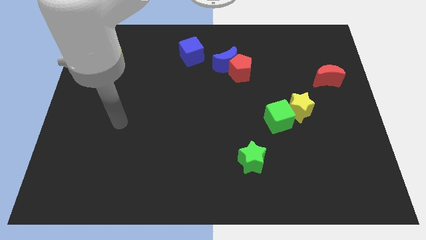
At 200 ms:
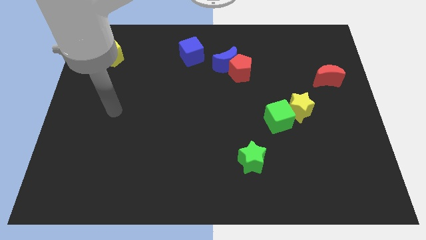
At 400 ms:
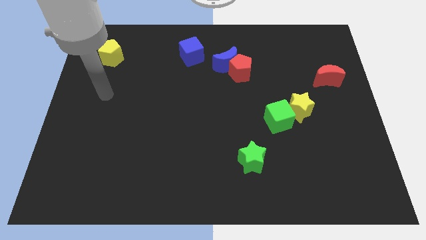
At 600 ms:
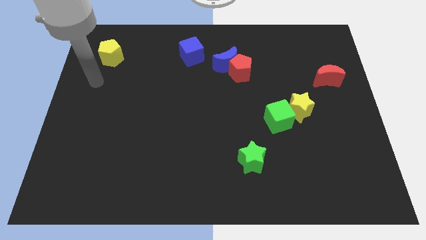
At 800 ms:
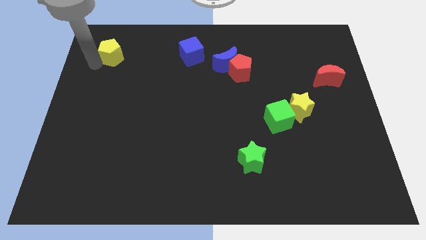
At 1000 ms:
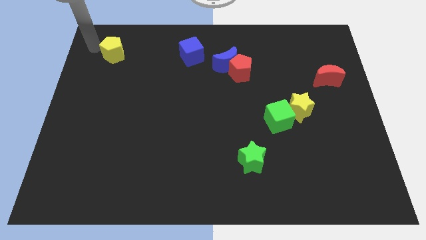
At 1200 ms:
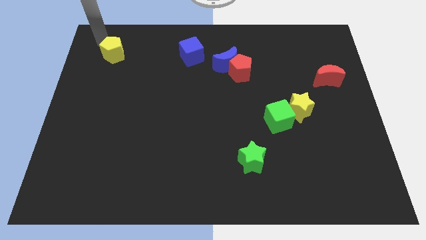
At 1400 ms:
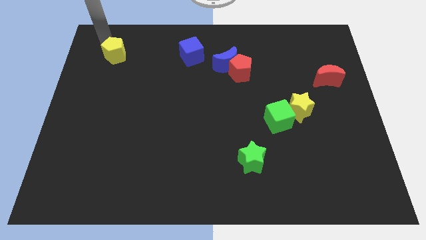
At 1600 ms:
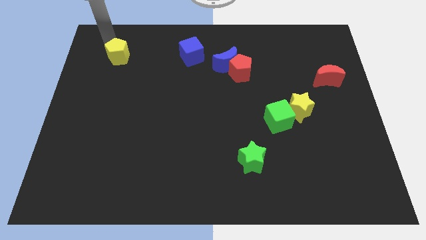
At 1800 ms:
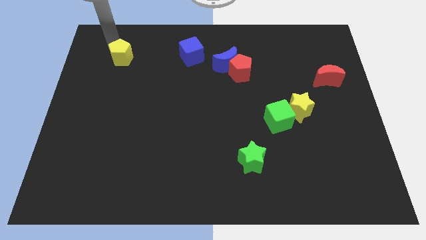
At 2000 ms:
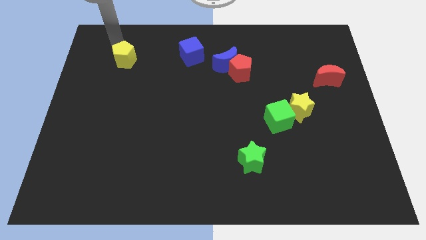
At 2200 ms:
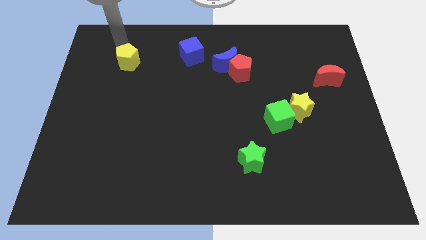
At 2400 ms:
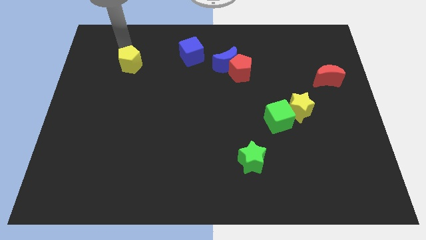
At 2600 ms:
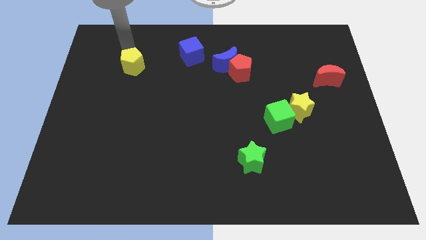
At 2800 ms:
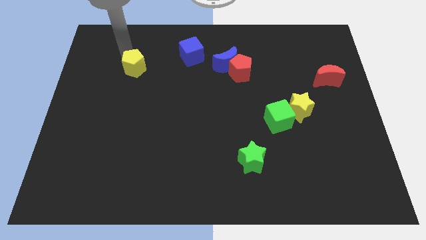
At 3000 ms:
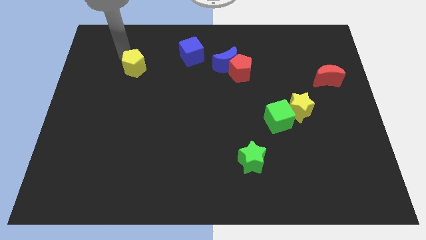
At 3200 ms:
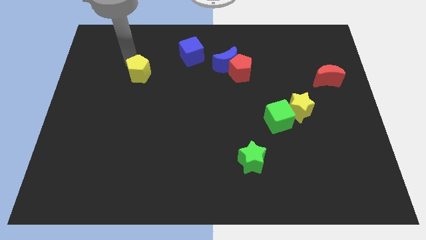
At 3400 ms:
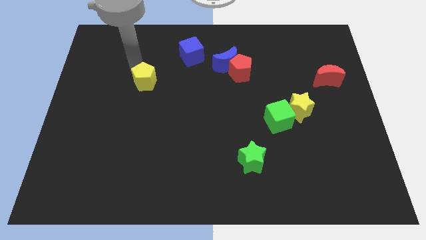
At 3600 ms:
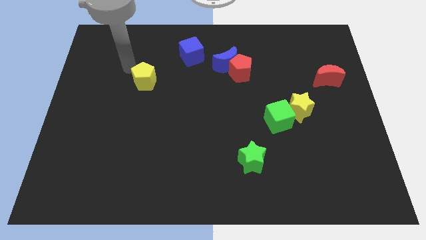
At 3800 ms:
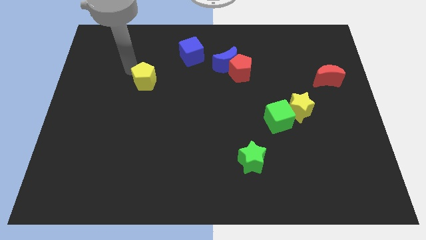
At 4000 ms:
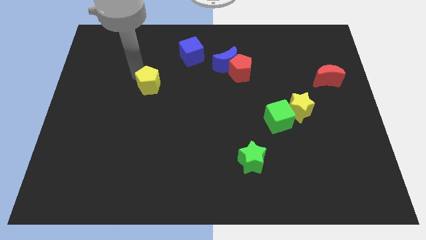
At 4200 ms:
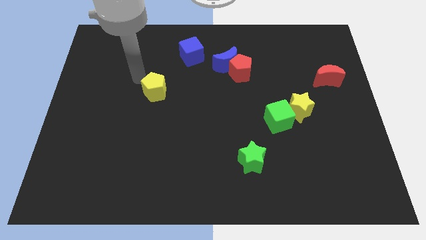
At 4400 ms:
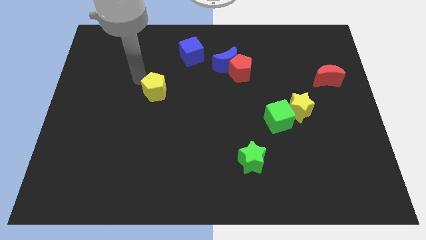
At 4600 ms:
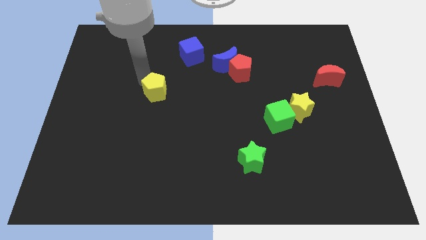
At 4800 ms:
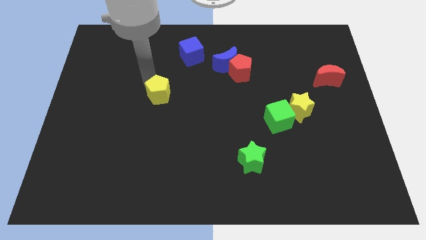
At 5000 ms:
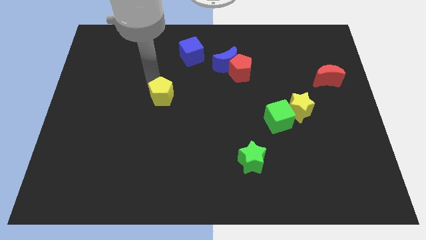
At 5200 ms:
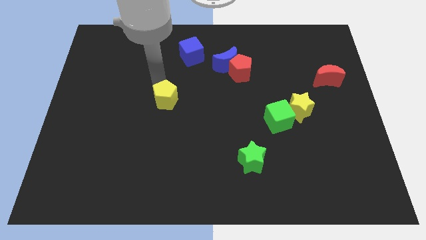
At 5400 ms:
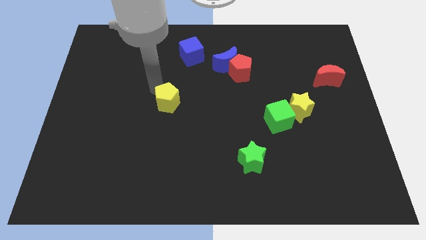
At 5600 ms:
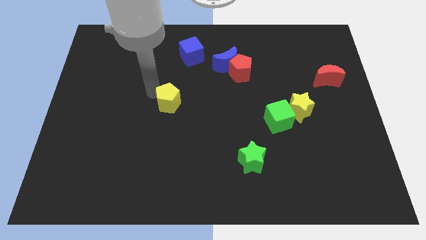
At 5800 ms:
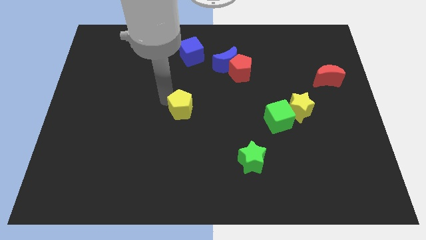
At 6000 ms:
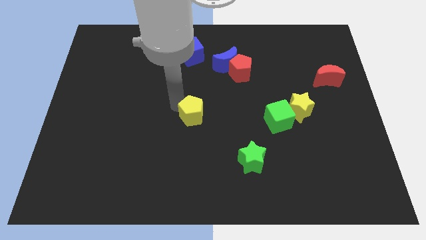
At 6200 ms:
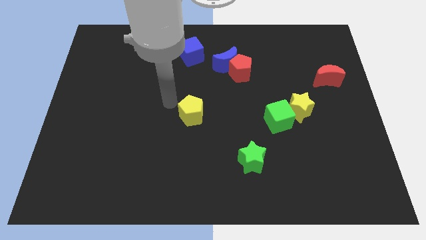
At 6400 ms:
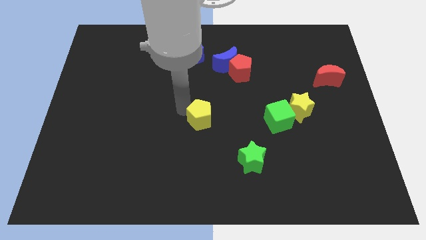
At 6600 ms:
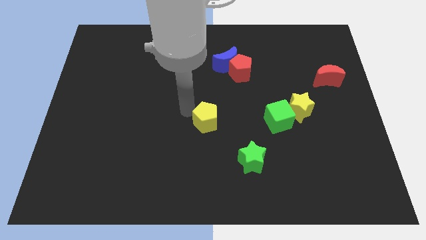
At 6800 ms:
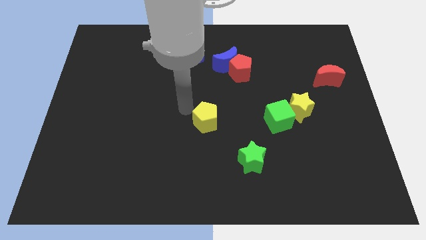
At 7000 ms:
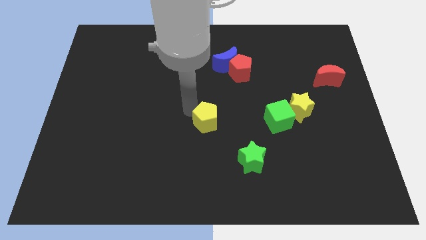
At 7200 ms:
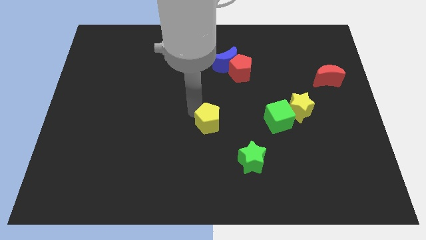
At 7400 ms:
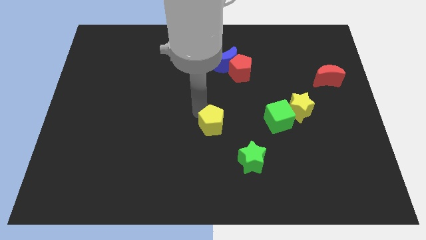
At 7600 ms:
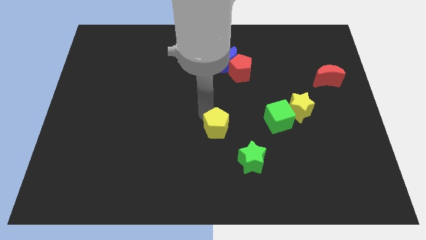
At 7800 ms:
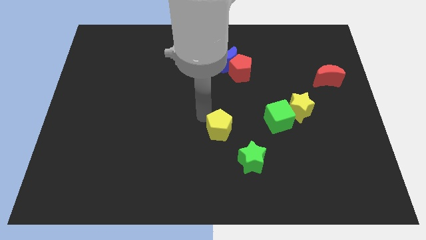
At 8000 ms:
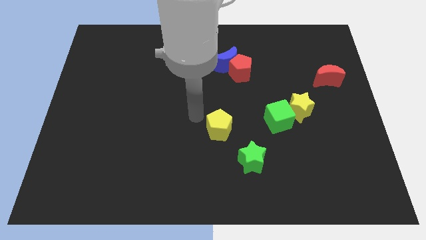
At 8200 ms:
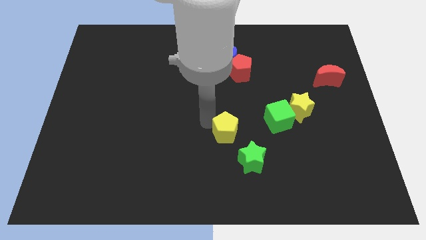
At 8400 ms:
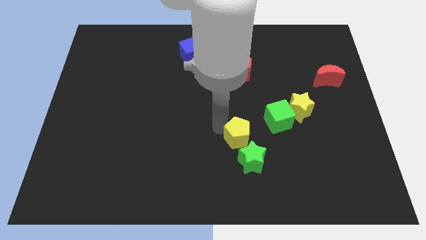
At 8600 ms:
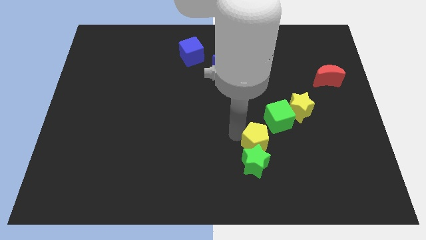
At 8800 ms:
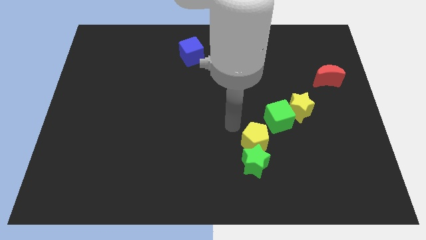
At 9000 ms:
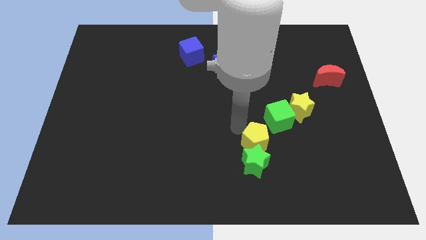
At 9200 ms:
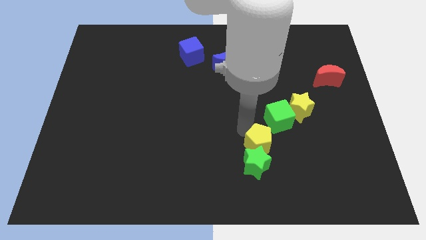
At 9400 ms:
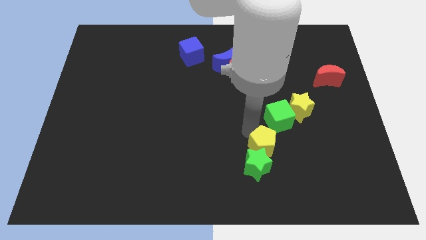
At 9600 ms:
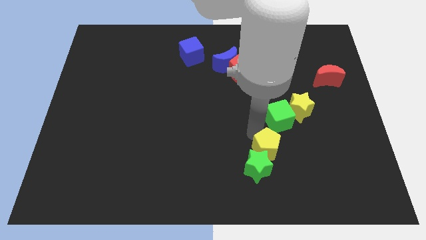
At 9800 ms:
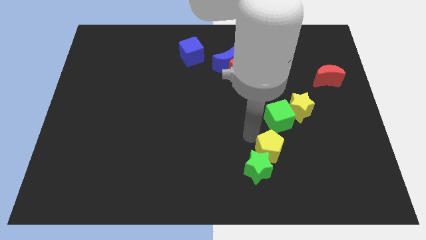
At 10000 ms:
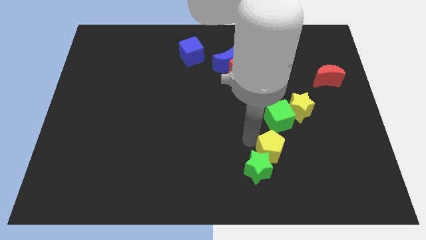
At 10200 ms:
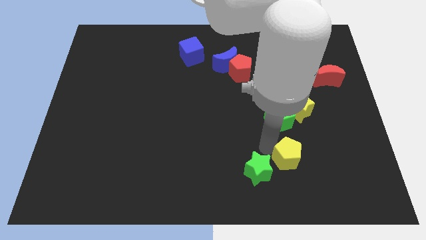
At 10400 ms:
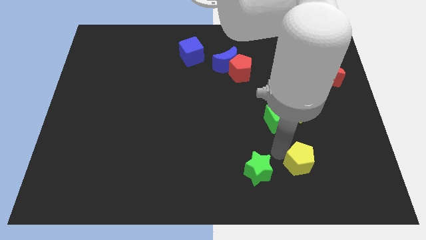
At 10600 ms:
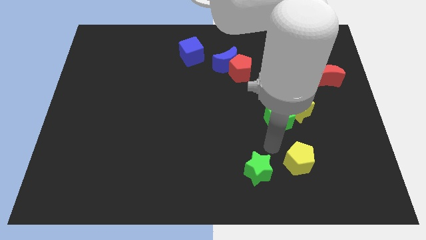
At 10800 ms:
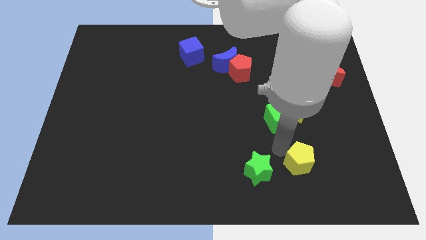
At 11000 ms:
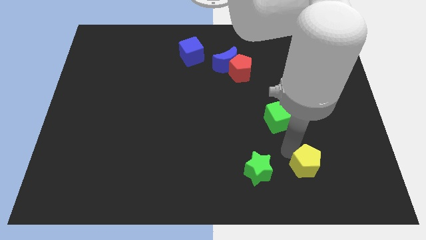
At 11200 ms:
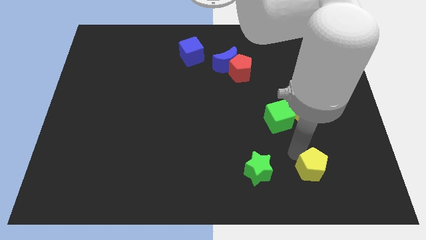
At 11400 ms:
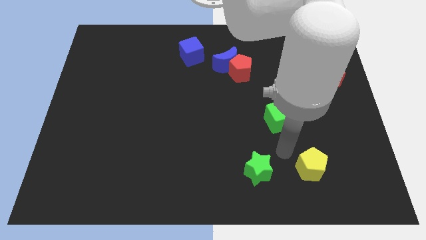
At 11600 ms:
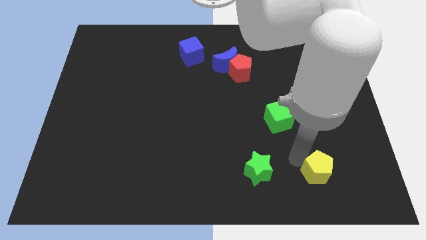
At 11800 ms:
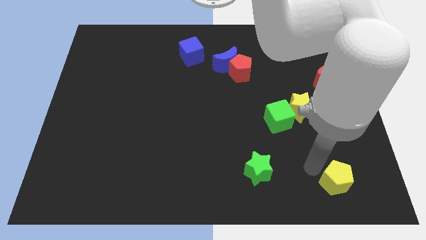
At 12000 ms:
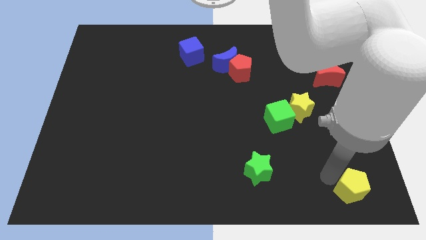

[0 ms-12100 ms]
slide the yellow pentagon to the lower right corner

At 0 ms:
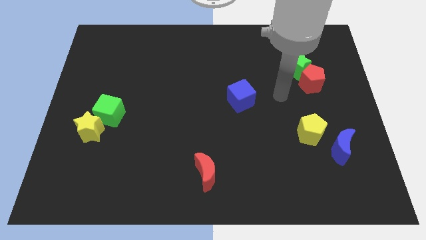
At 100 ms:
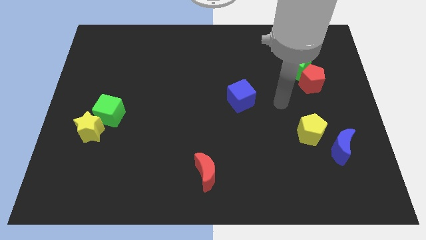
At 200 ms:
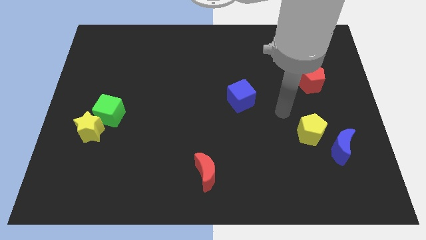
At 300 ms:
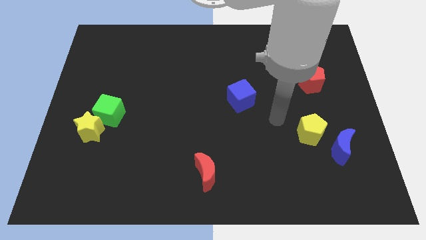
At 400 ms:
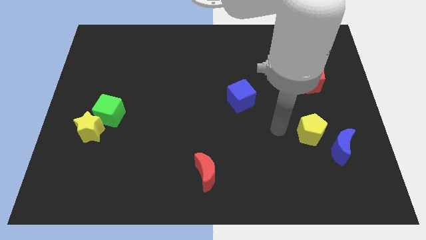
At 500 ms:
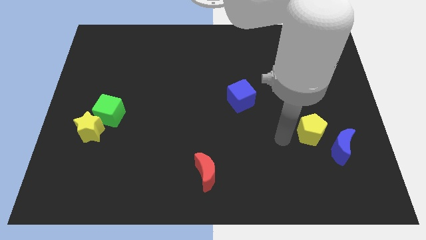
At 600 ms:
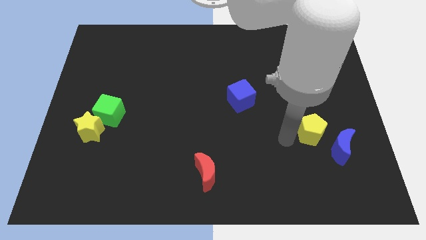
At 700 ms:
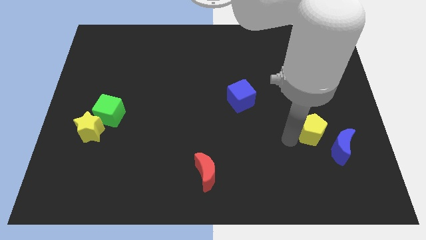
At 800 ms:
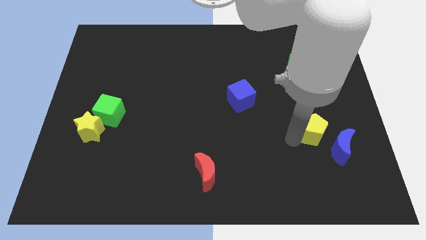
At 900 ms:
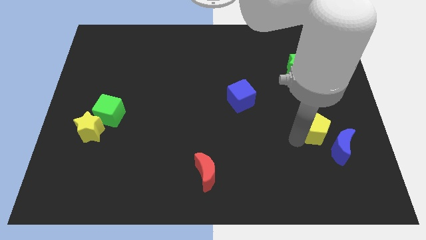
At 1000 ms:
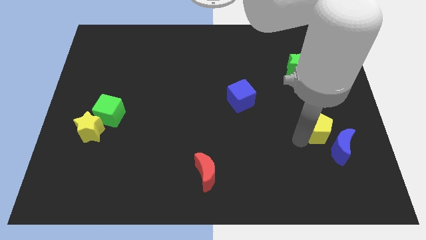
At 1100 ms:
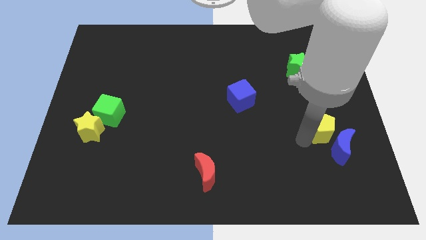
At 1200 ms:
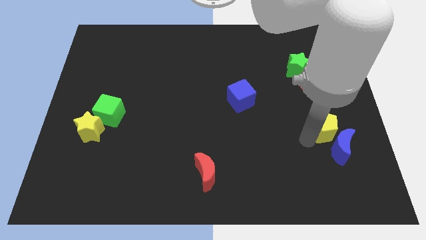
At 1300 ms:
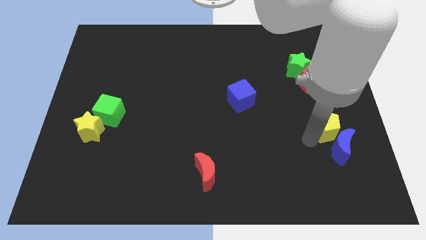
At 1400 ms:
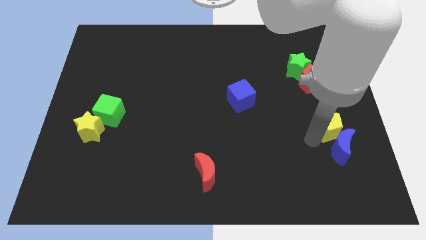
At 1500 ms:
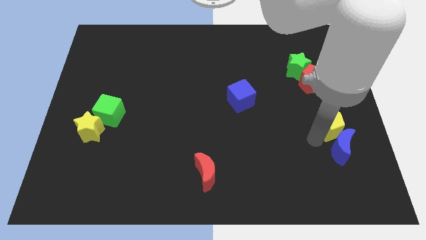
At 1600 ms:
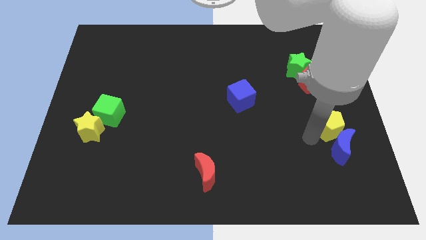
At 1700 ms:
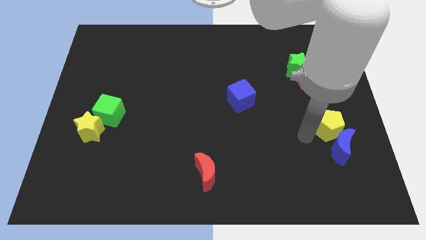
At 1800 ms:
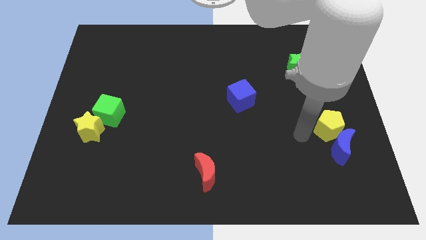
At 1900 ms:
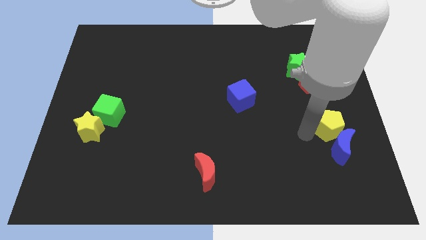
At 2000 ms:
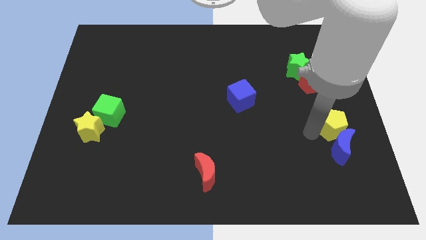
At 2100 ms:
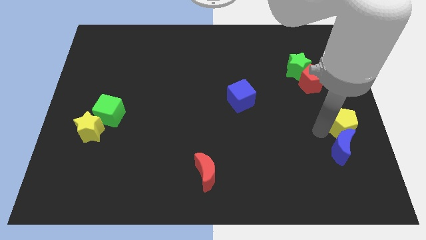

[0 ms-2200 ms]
move the yellow pentagon to the right side
